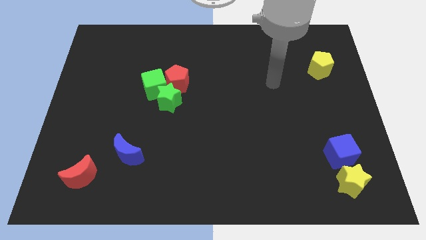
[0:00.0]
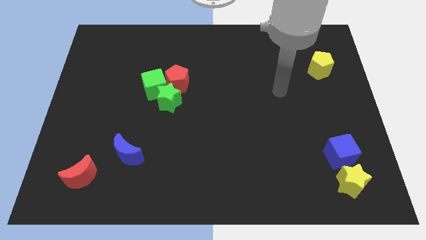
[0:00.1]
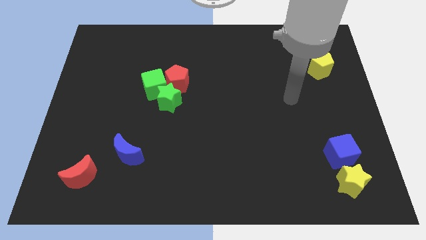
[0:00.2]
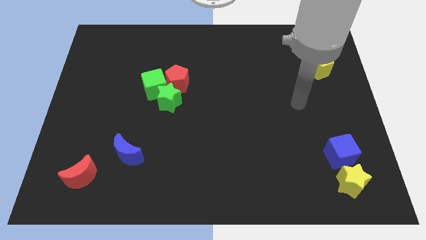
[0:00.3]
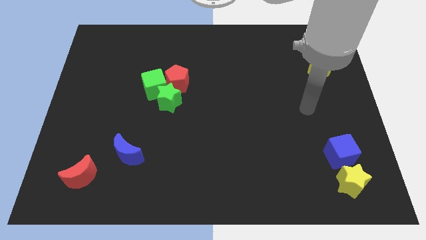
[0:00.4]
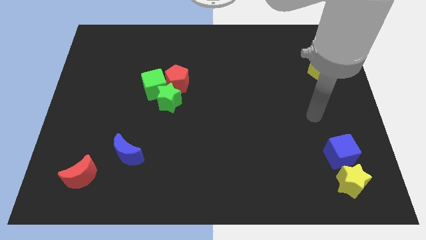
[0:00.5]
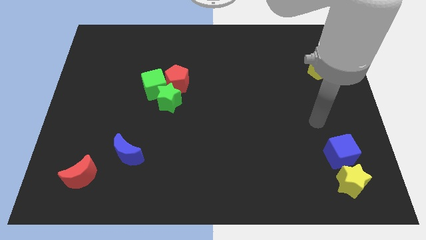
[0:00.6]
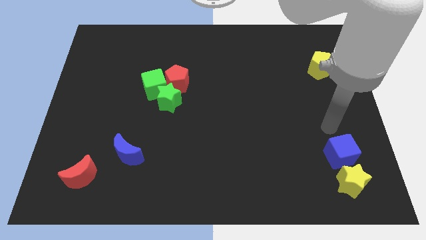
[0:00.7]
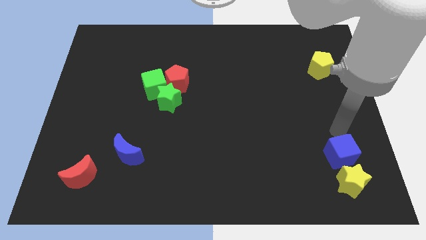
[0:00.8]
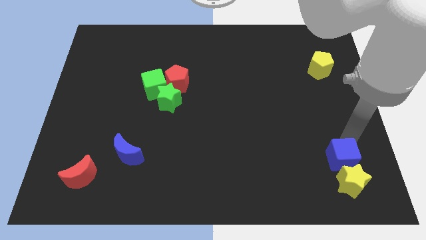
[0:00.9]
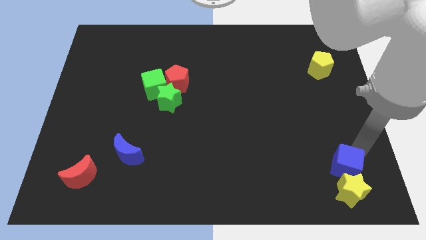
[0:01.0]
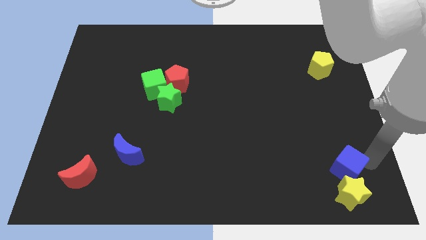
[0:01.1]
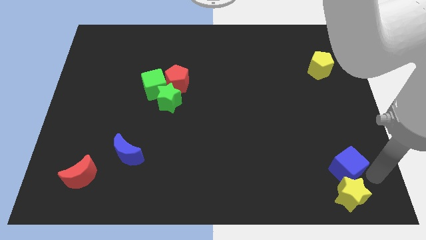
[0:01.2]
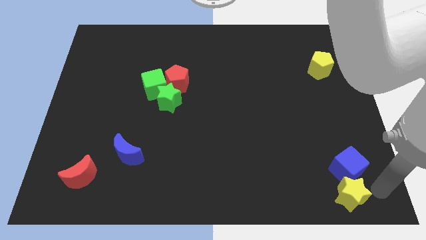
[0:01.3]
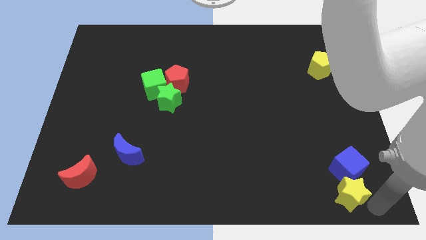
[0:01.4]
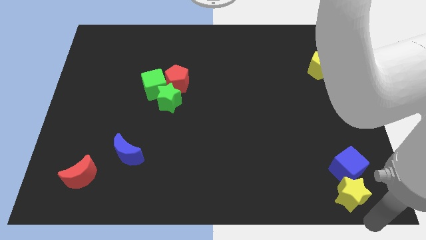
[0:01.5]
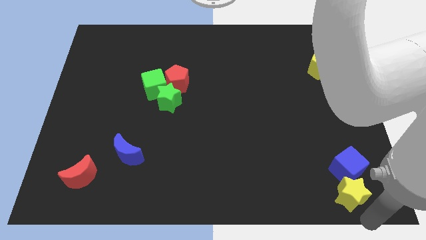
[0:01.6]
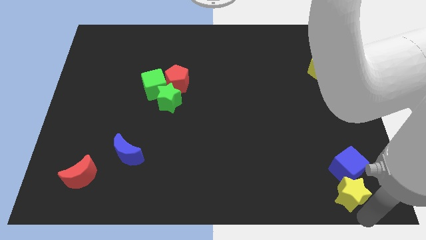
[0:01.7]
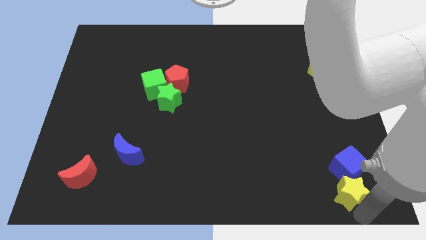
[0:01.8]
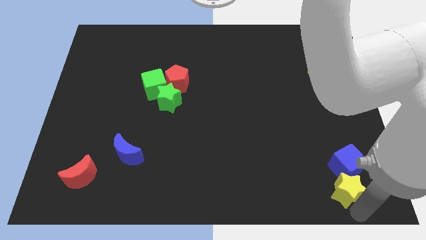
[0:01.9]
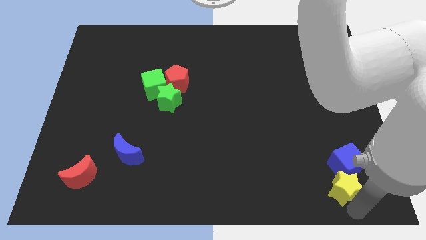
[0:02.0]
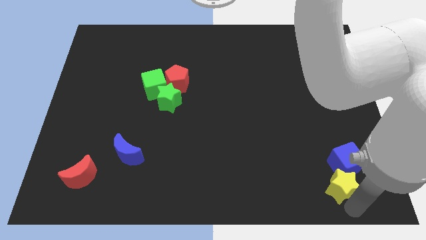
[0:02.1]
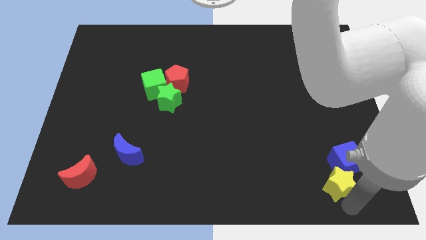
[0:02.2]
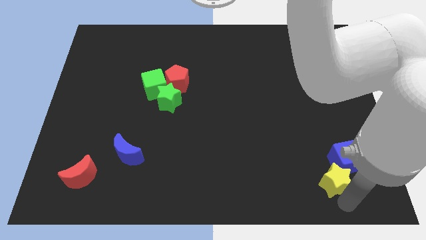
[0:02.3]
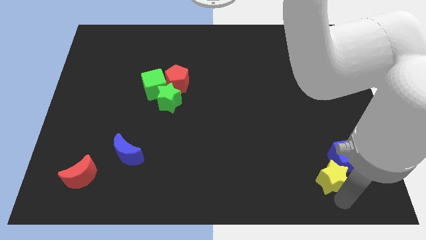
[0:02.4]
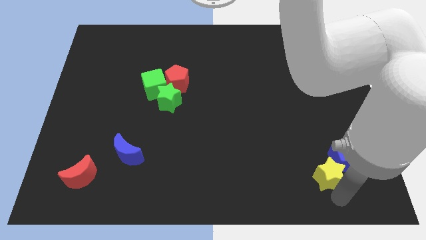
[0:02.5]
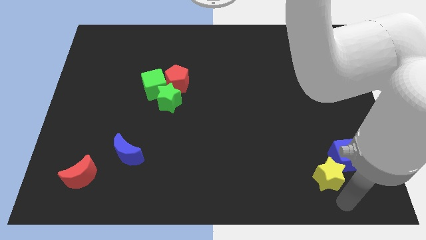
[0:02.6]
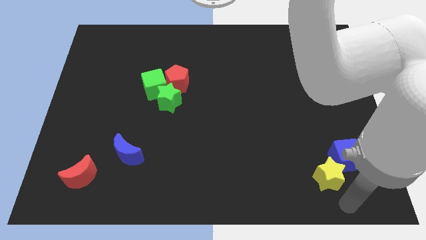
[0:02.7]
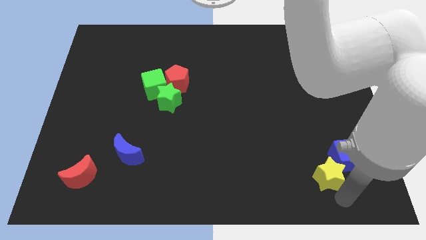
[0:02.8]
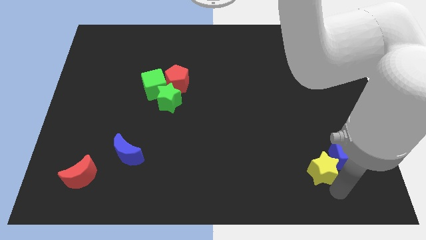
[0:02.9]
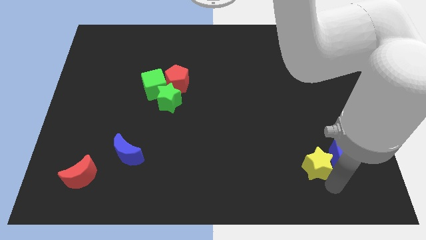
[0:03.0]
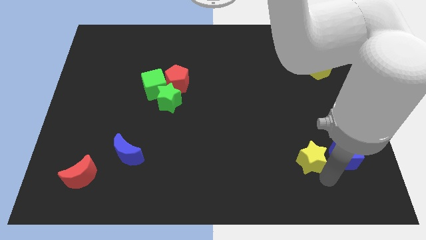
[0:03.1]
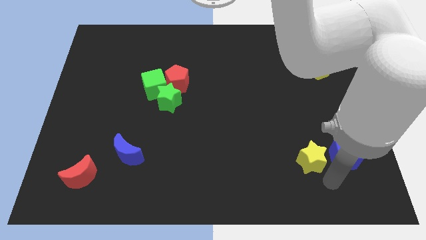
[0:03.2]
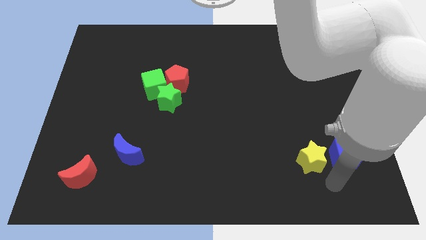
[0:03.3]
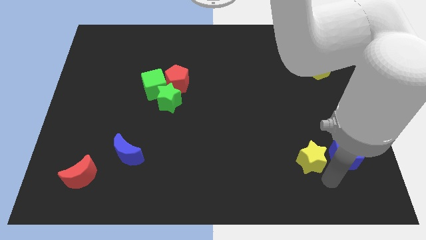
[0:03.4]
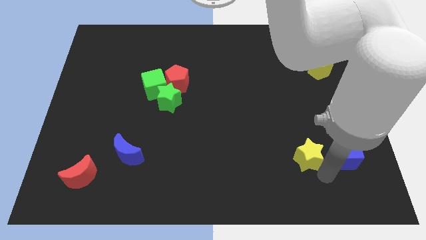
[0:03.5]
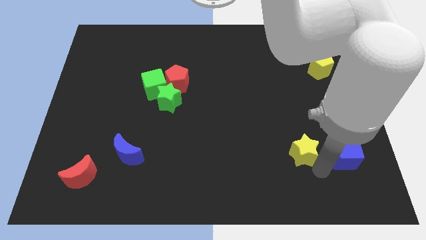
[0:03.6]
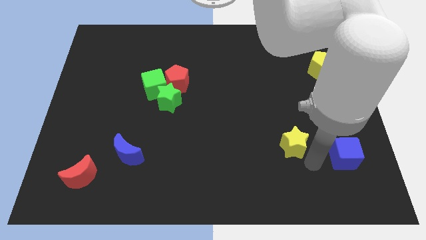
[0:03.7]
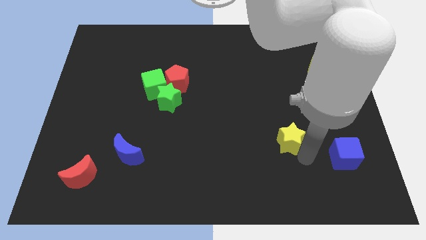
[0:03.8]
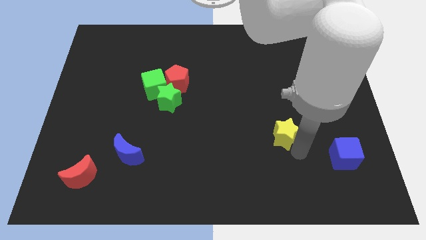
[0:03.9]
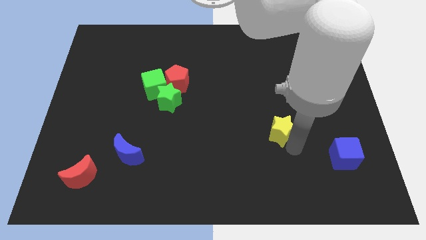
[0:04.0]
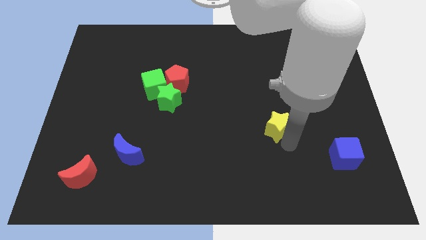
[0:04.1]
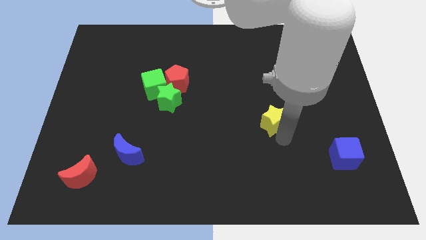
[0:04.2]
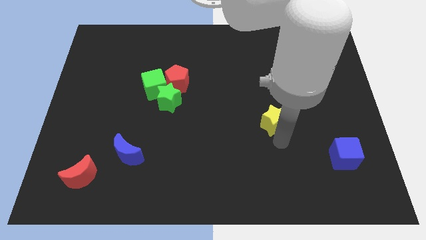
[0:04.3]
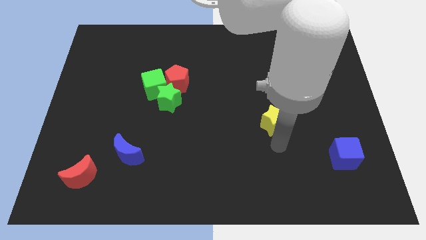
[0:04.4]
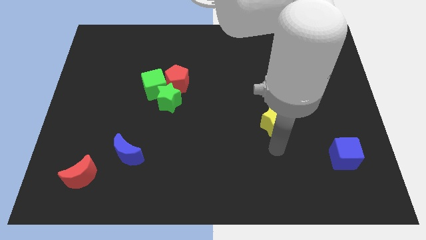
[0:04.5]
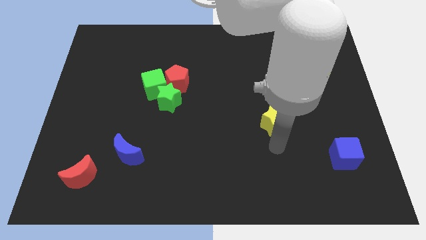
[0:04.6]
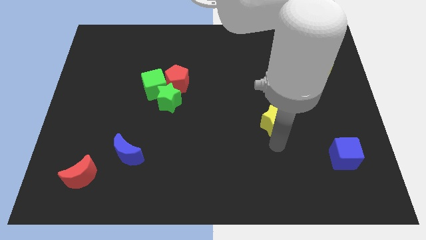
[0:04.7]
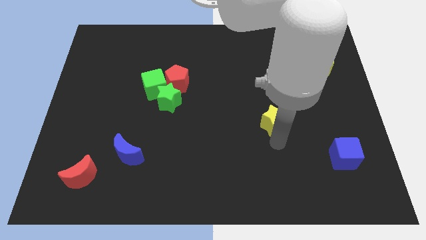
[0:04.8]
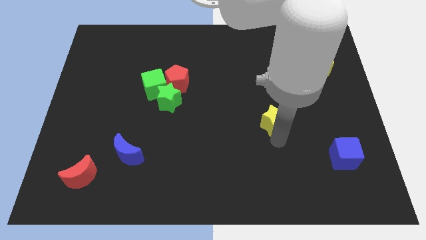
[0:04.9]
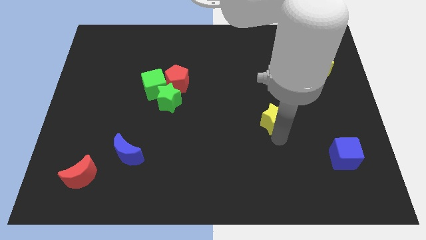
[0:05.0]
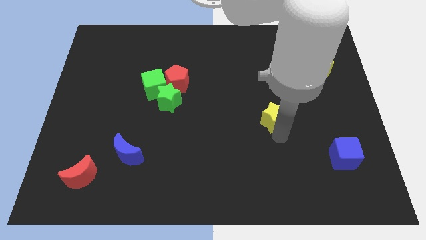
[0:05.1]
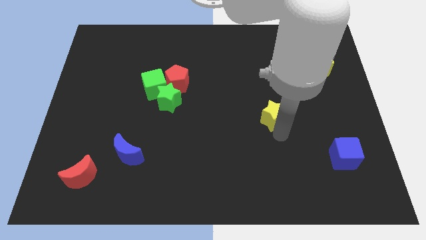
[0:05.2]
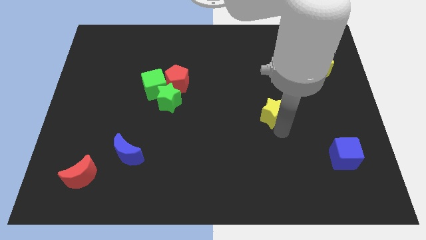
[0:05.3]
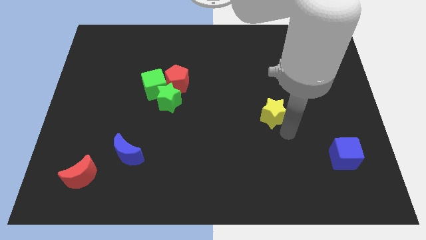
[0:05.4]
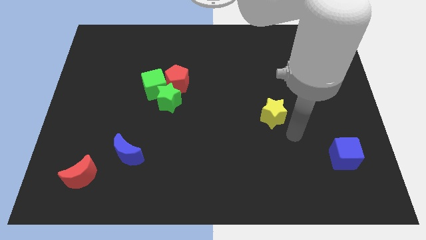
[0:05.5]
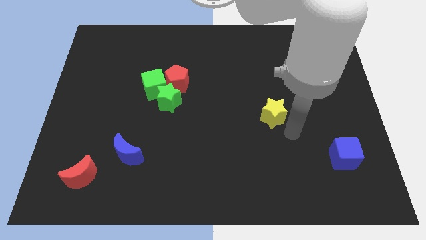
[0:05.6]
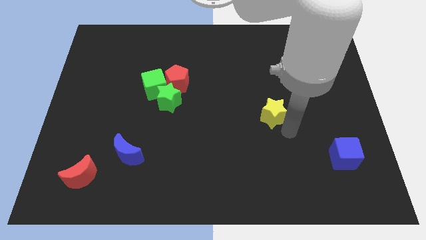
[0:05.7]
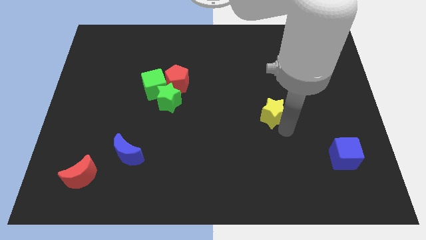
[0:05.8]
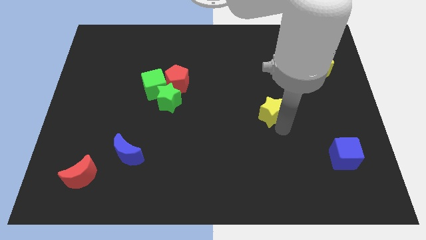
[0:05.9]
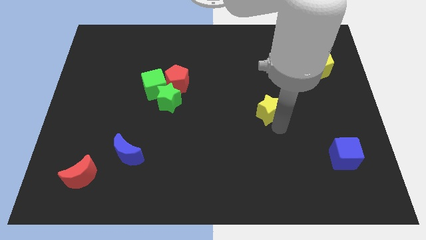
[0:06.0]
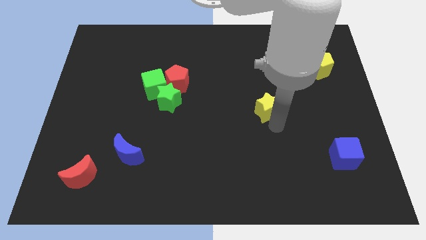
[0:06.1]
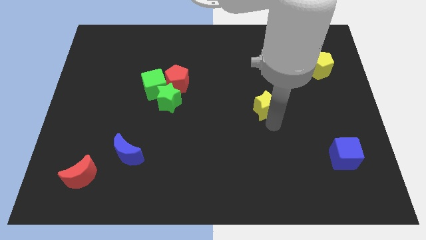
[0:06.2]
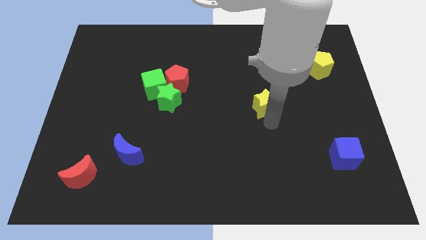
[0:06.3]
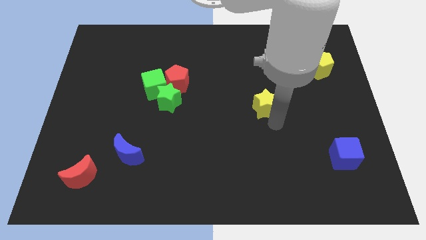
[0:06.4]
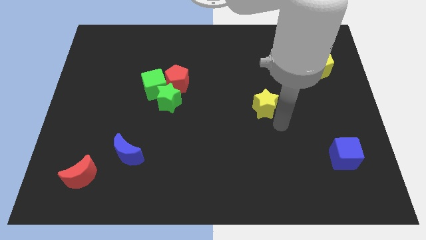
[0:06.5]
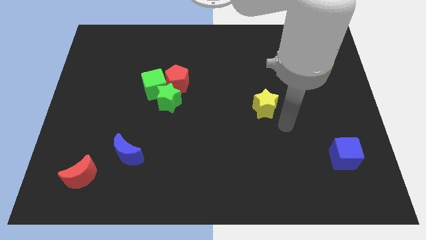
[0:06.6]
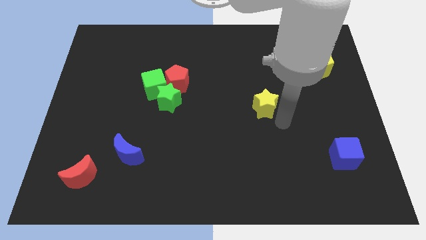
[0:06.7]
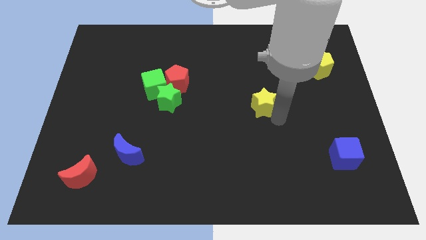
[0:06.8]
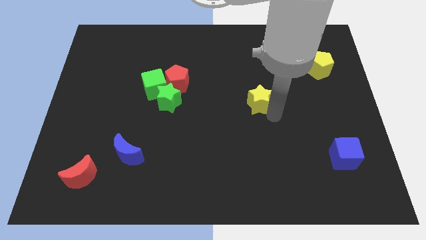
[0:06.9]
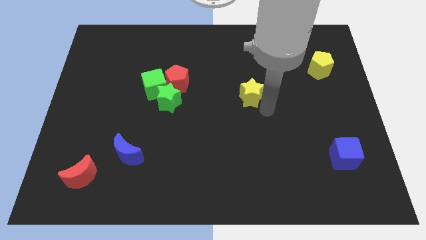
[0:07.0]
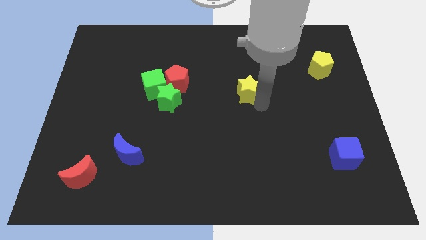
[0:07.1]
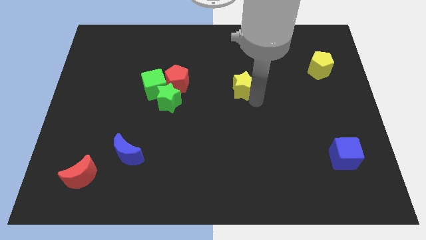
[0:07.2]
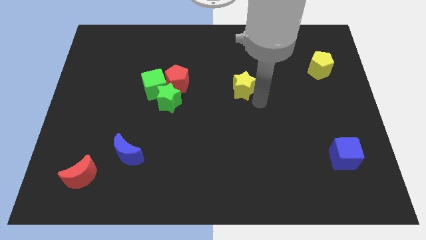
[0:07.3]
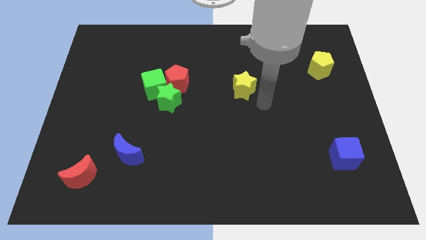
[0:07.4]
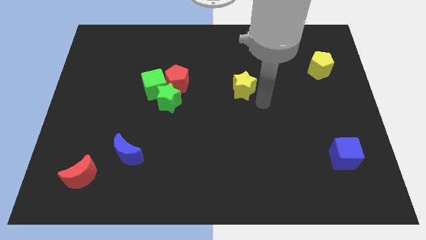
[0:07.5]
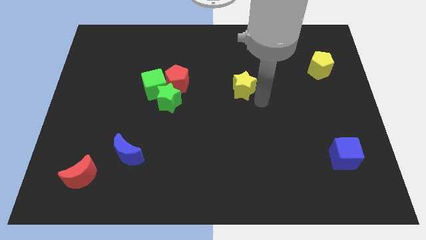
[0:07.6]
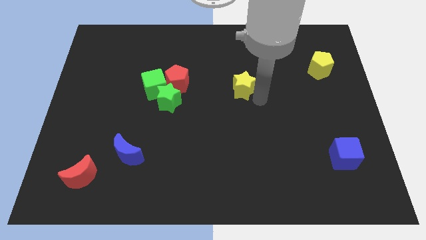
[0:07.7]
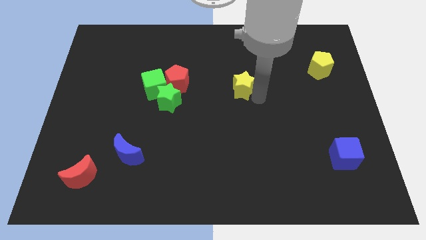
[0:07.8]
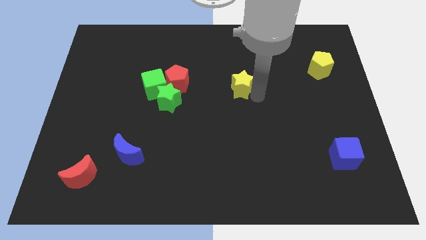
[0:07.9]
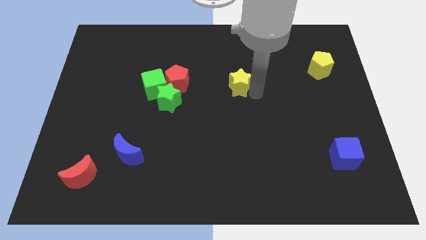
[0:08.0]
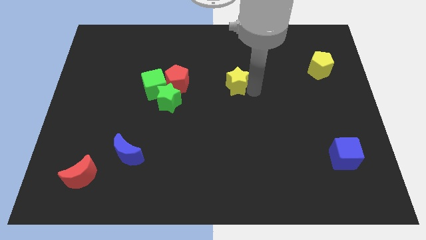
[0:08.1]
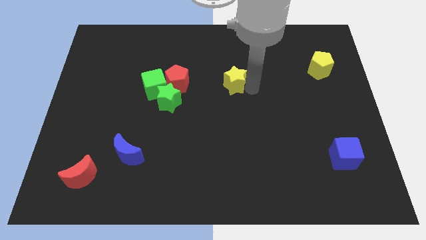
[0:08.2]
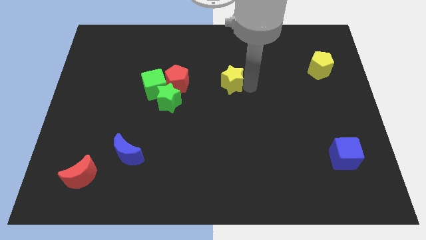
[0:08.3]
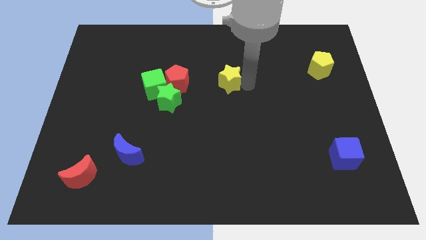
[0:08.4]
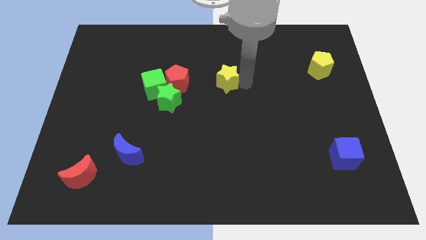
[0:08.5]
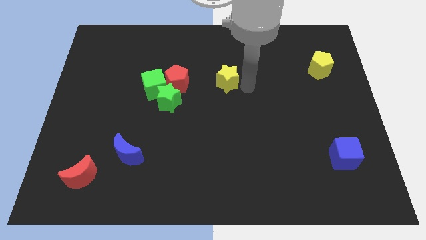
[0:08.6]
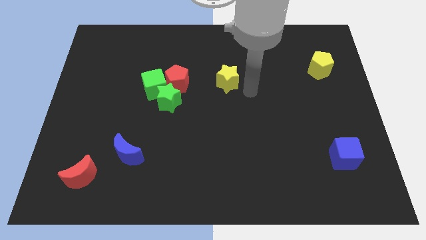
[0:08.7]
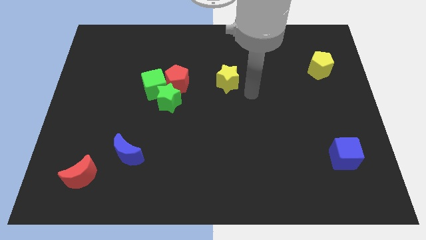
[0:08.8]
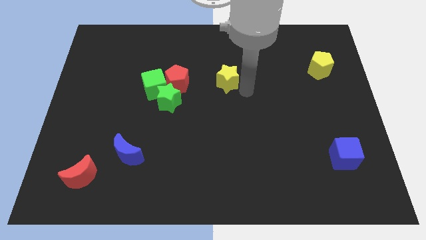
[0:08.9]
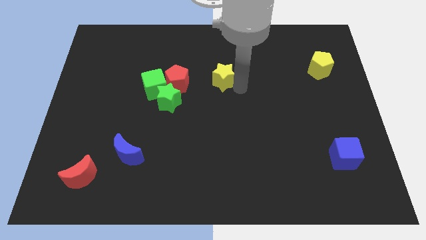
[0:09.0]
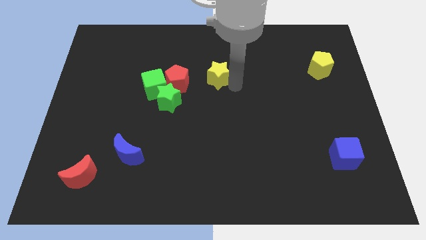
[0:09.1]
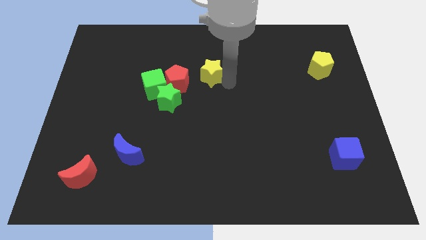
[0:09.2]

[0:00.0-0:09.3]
push the yellow star to the top right side of the red pentagon
